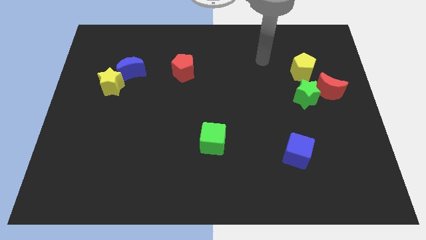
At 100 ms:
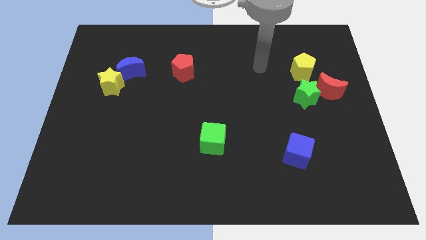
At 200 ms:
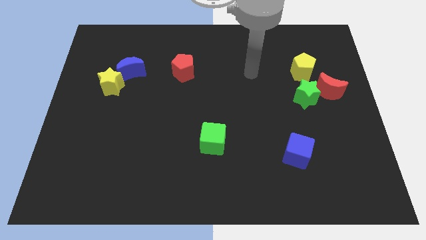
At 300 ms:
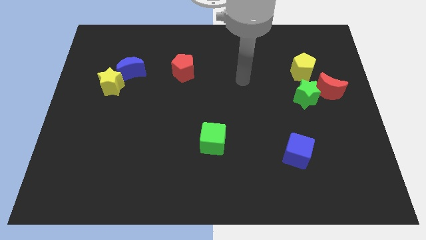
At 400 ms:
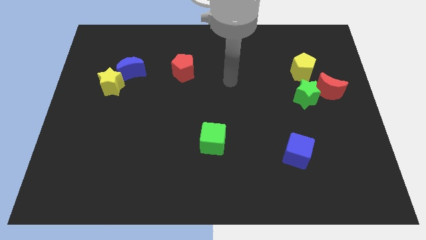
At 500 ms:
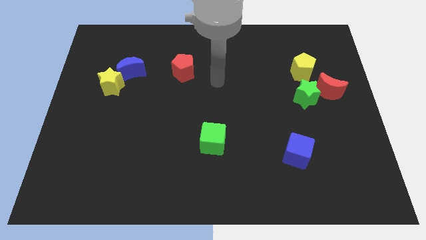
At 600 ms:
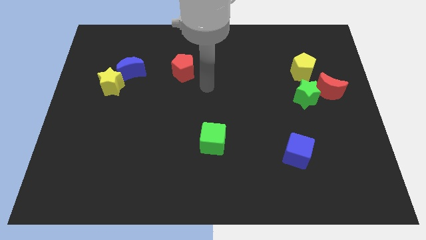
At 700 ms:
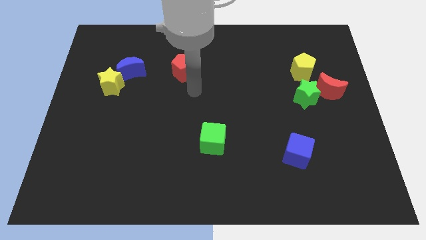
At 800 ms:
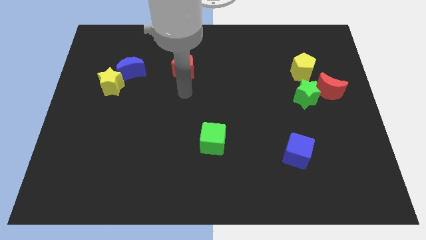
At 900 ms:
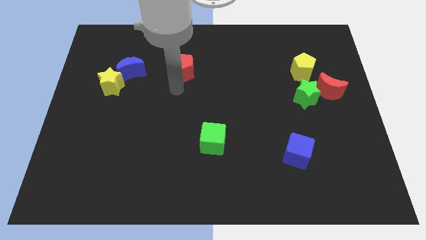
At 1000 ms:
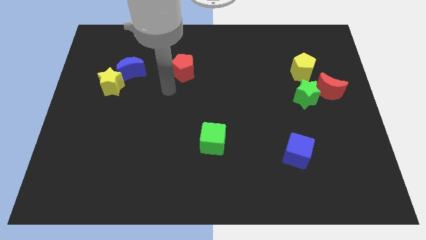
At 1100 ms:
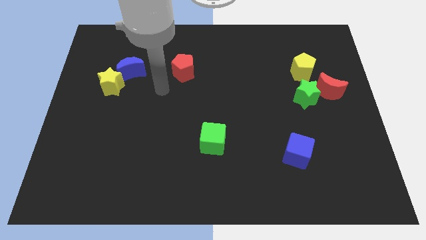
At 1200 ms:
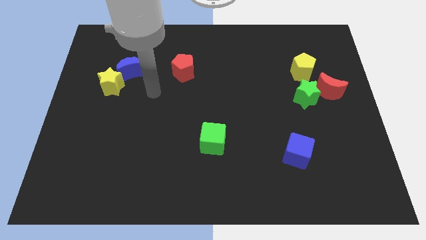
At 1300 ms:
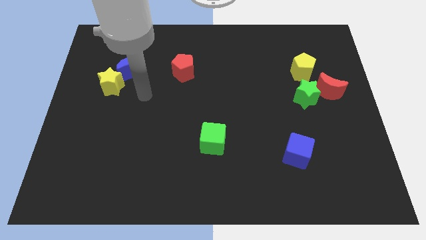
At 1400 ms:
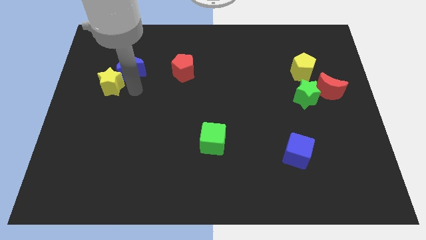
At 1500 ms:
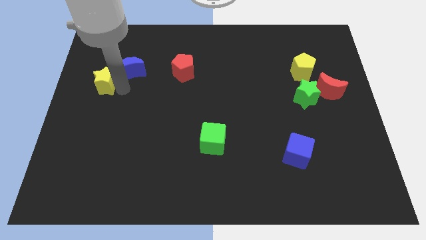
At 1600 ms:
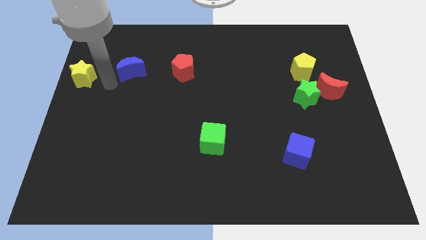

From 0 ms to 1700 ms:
move the blue moon away from the yellow star

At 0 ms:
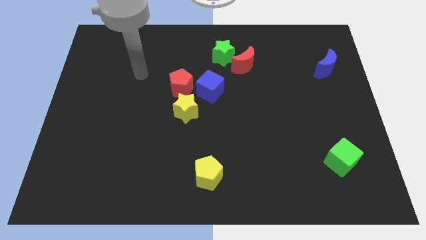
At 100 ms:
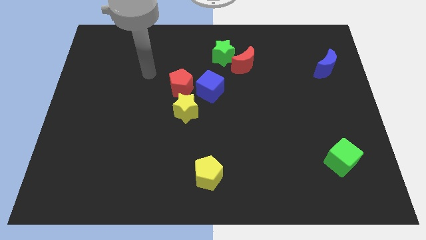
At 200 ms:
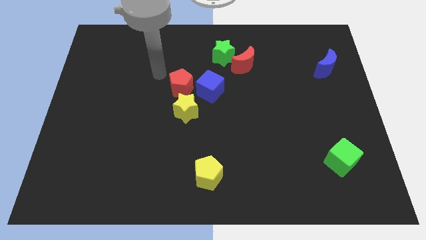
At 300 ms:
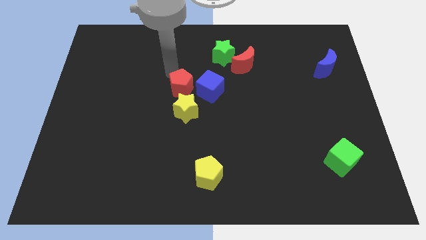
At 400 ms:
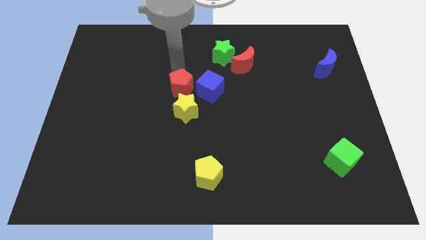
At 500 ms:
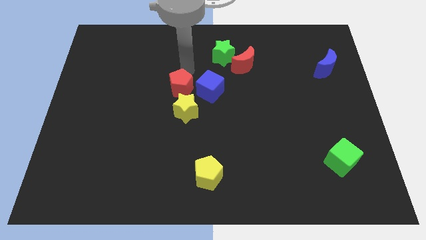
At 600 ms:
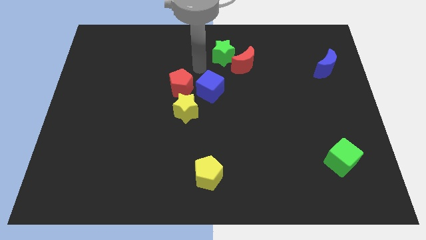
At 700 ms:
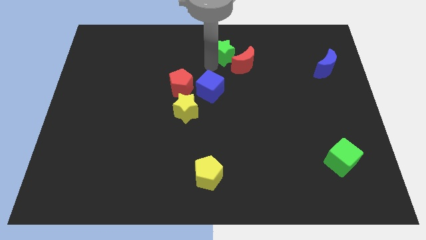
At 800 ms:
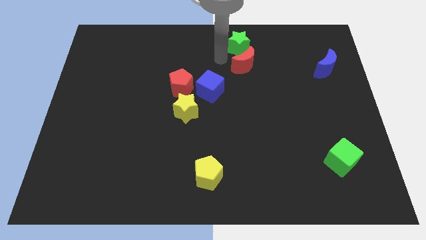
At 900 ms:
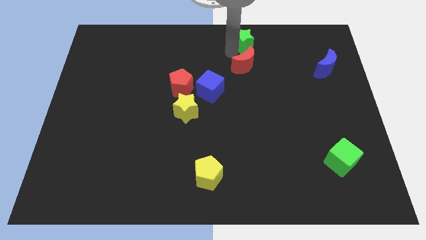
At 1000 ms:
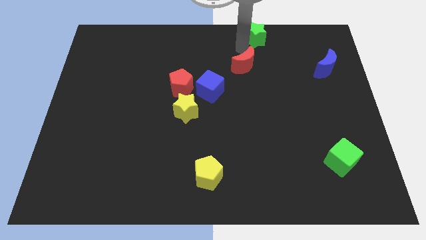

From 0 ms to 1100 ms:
separate the red moon from the green star

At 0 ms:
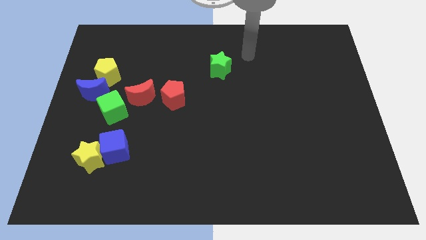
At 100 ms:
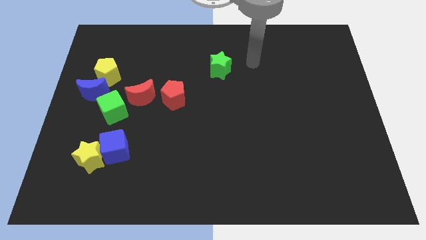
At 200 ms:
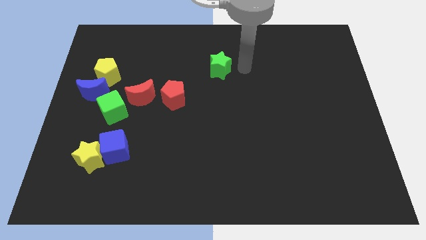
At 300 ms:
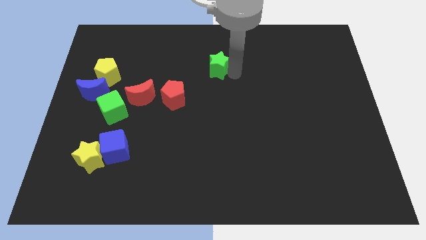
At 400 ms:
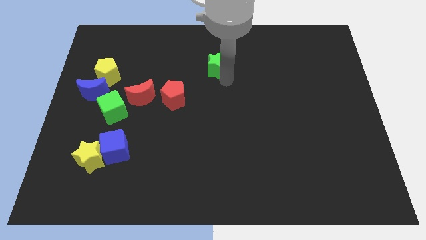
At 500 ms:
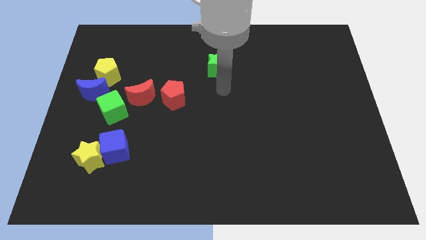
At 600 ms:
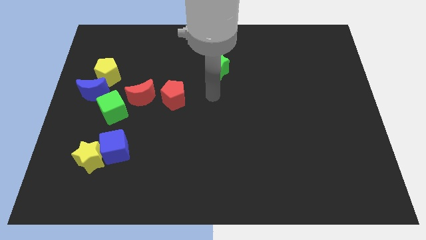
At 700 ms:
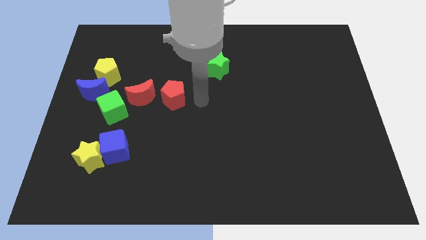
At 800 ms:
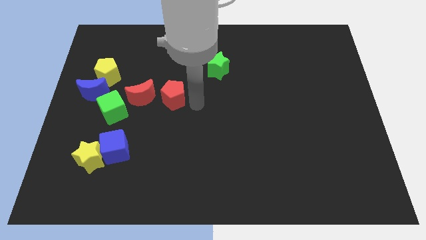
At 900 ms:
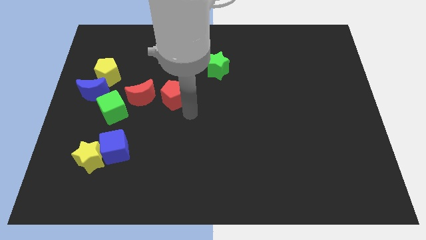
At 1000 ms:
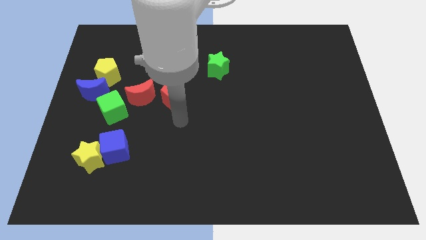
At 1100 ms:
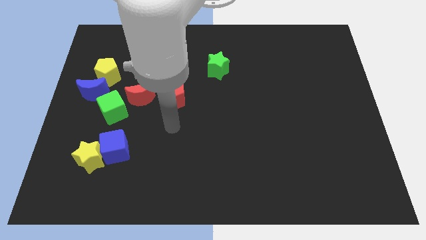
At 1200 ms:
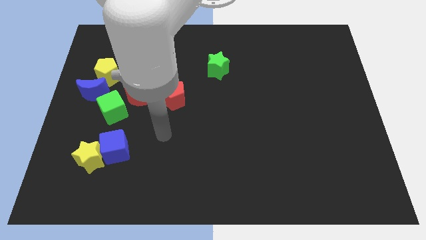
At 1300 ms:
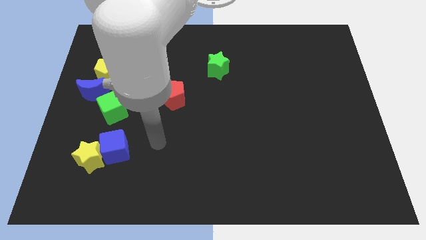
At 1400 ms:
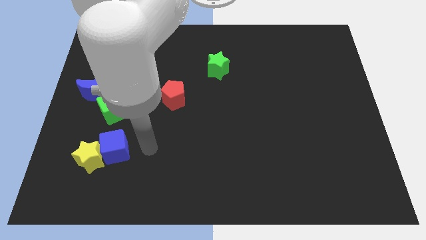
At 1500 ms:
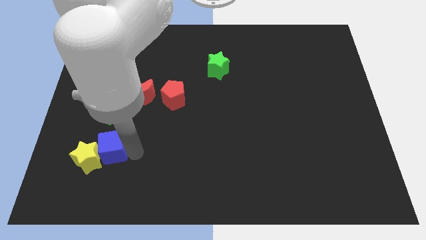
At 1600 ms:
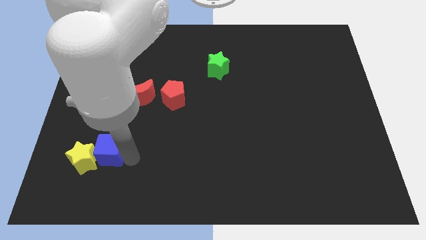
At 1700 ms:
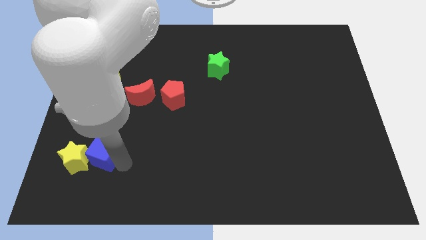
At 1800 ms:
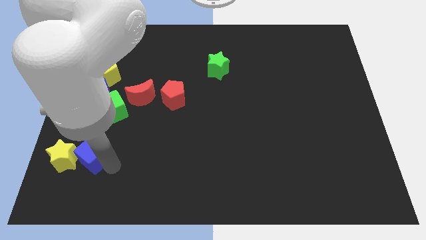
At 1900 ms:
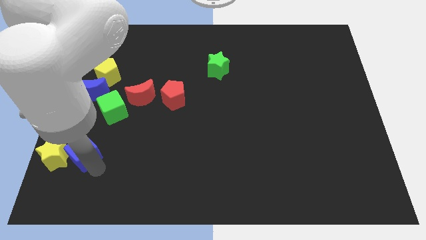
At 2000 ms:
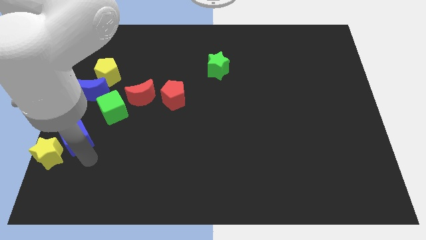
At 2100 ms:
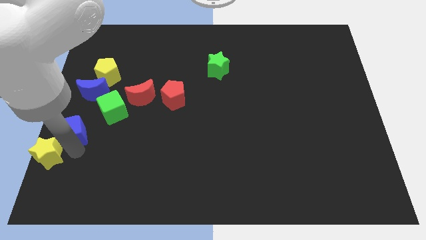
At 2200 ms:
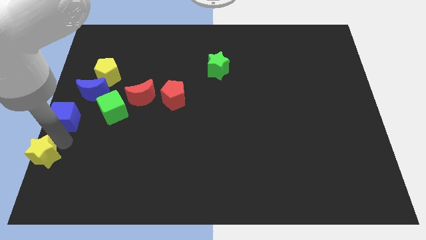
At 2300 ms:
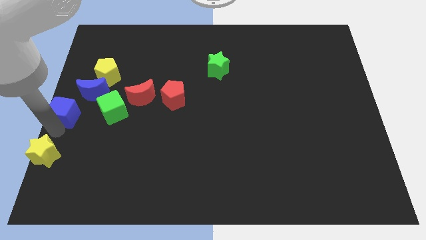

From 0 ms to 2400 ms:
move the blue cube away from the yellow star

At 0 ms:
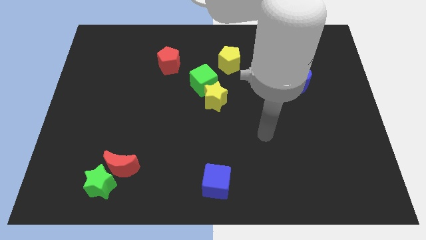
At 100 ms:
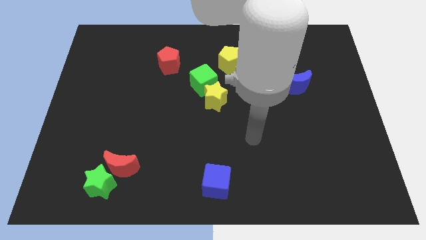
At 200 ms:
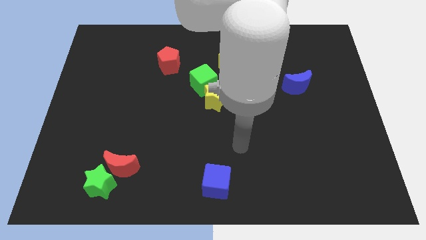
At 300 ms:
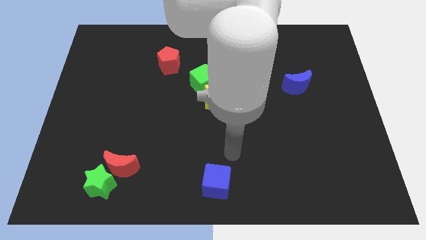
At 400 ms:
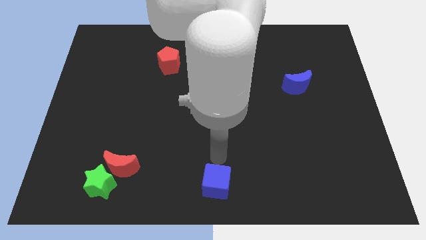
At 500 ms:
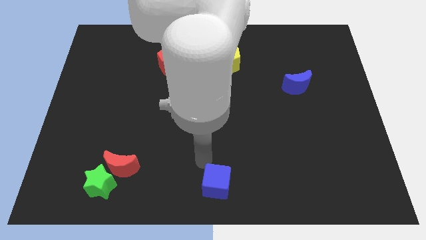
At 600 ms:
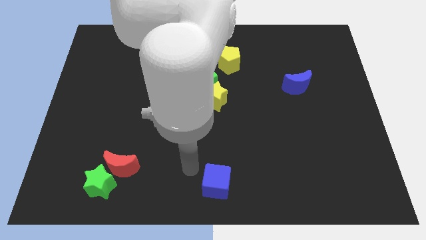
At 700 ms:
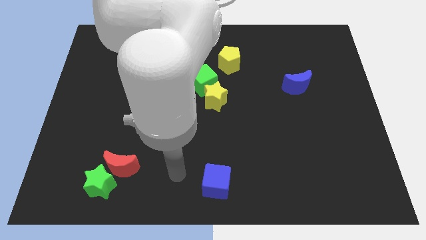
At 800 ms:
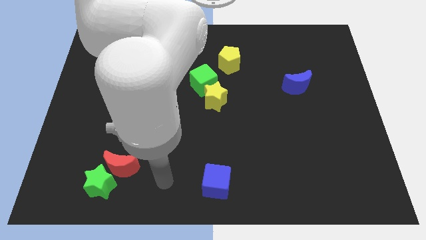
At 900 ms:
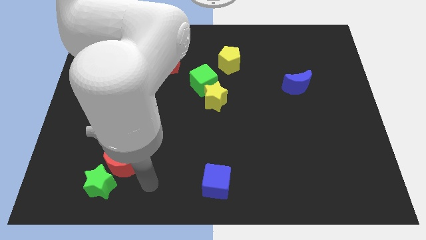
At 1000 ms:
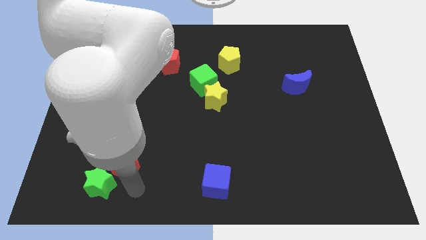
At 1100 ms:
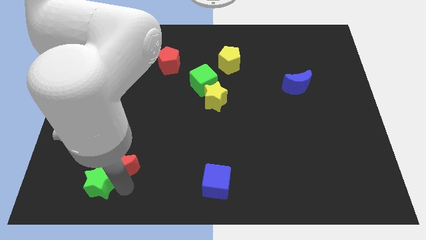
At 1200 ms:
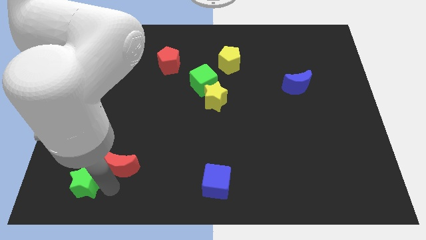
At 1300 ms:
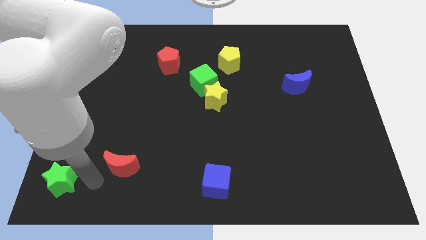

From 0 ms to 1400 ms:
pull the red moon apart from the green star

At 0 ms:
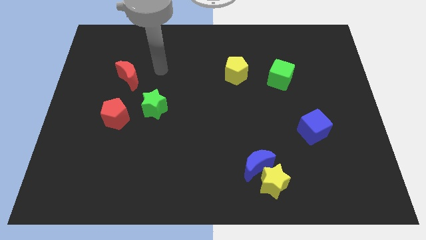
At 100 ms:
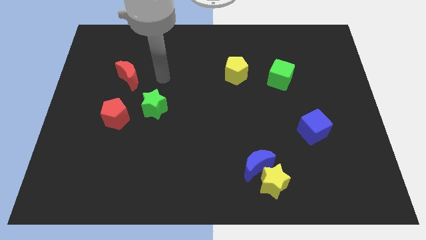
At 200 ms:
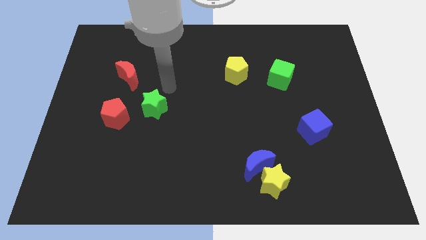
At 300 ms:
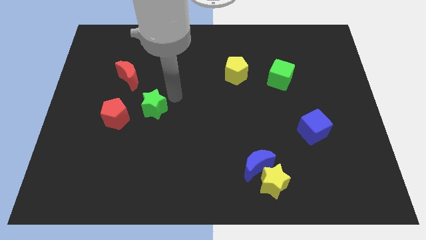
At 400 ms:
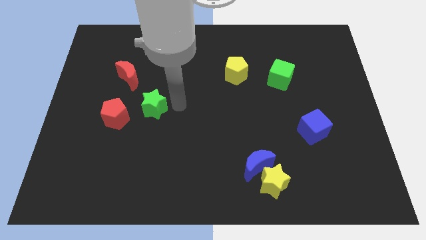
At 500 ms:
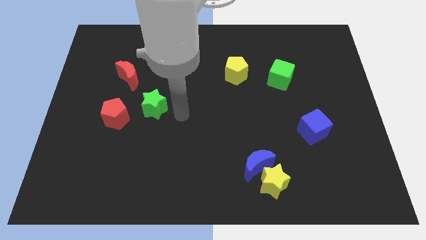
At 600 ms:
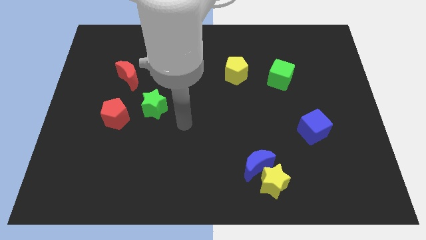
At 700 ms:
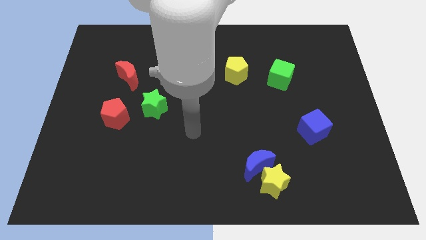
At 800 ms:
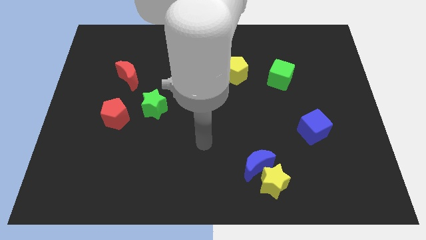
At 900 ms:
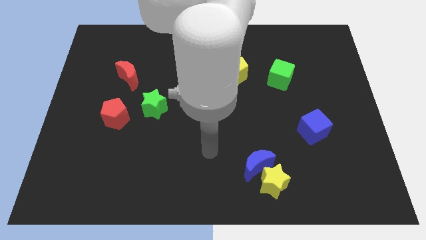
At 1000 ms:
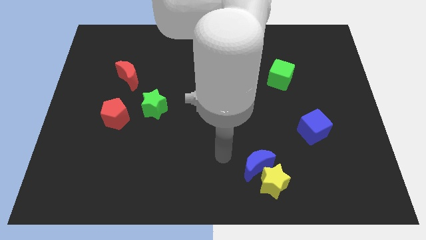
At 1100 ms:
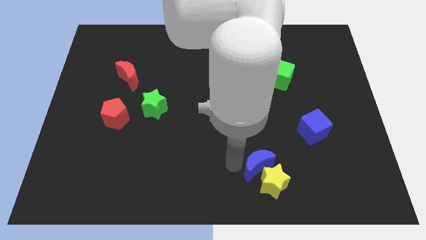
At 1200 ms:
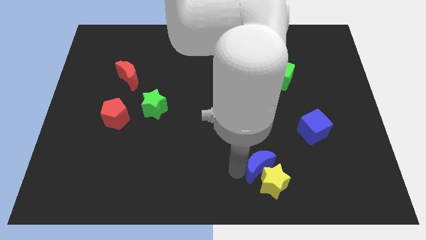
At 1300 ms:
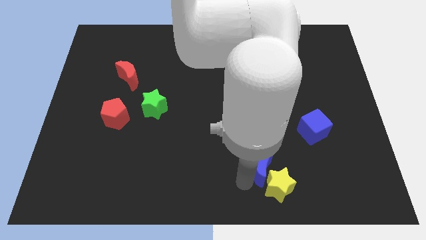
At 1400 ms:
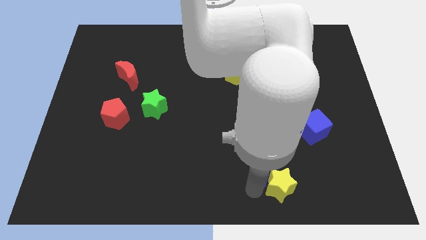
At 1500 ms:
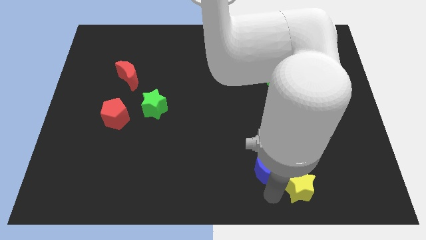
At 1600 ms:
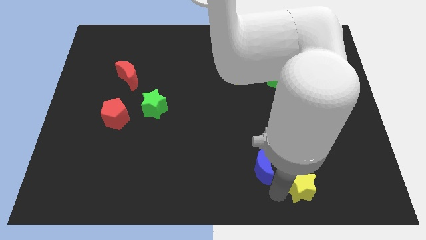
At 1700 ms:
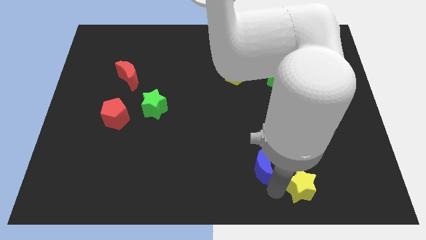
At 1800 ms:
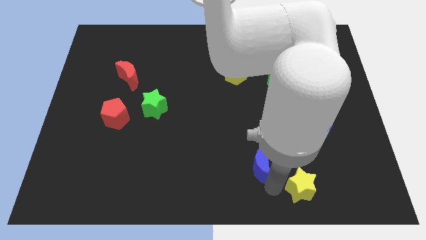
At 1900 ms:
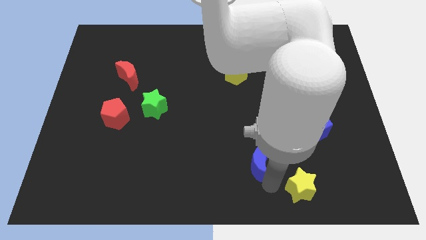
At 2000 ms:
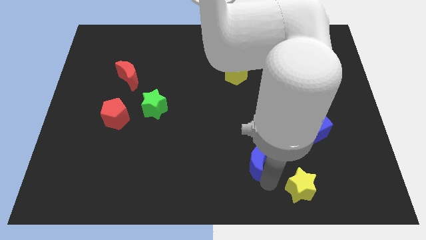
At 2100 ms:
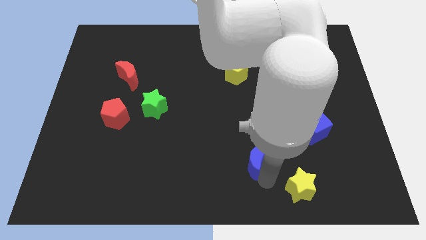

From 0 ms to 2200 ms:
pull the blue moon apart from the yellow star

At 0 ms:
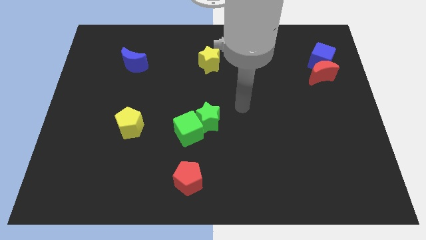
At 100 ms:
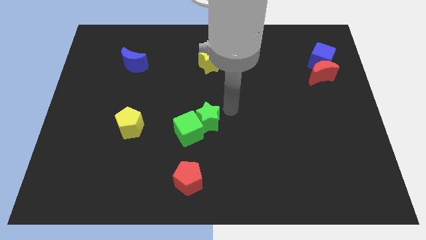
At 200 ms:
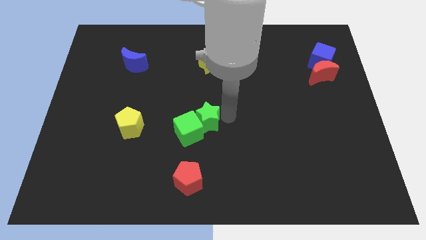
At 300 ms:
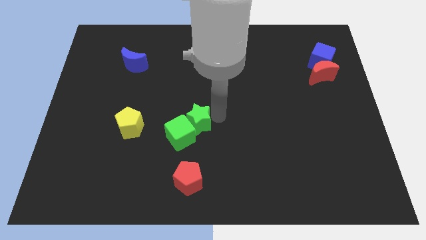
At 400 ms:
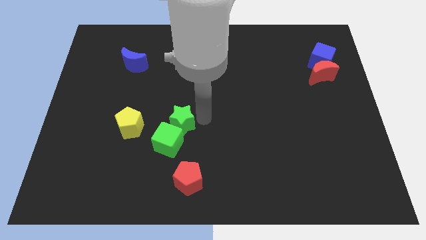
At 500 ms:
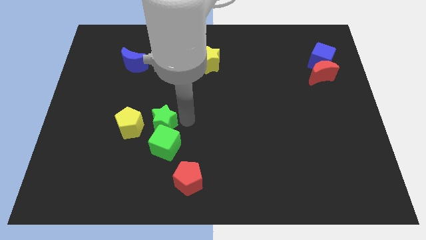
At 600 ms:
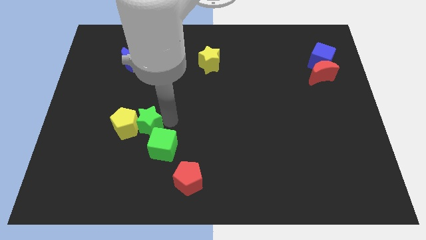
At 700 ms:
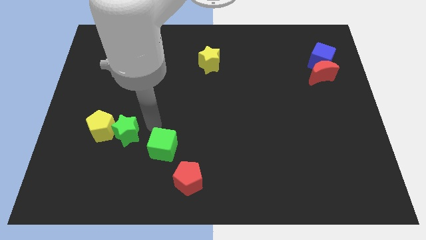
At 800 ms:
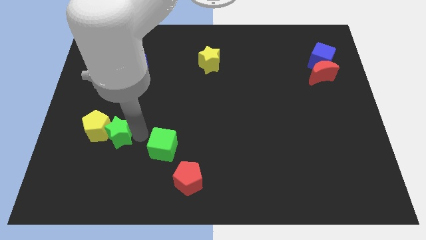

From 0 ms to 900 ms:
pull the green cube apart from the green star
